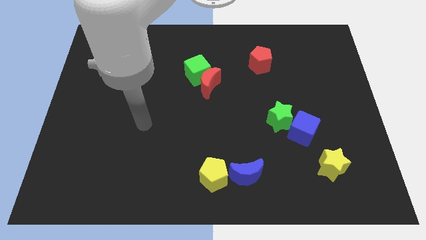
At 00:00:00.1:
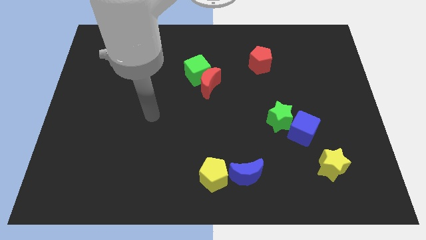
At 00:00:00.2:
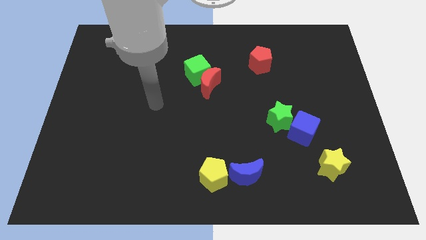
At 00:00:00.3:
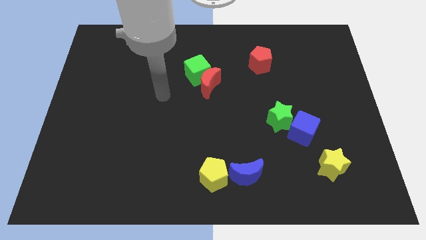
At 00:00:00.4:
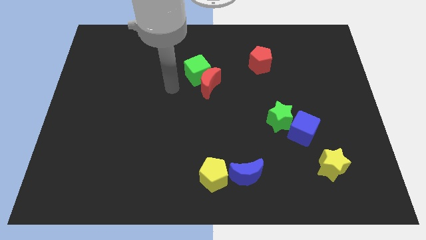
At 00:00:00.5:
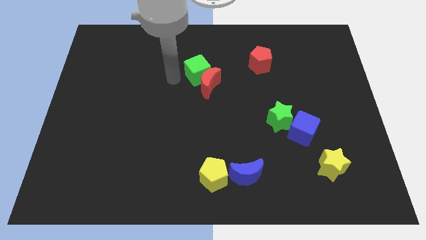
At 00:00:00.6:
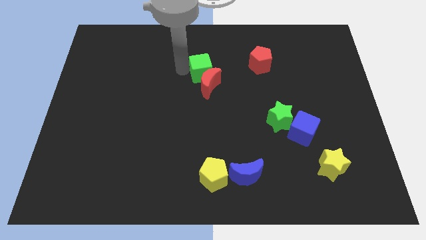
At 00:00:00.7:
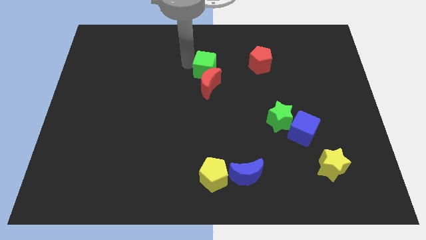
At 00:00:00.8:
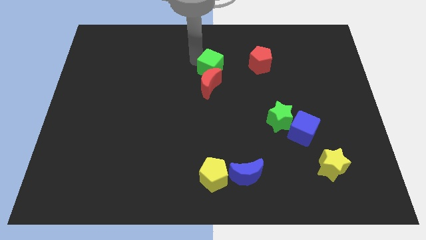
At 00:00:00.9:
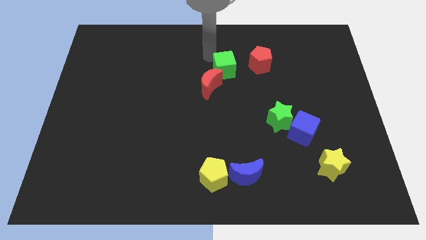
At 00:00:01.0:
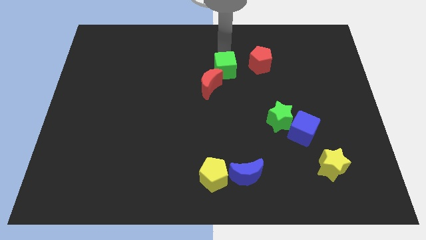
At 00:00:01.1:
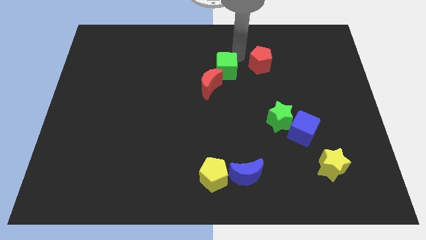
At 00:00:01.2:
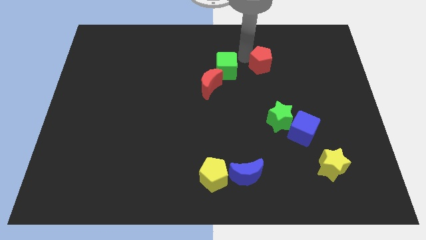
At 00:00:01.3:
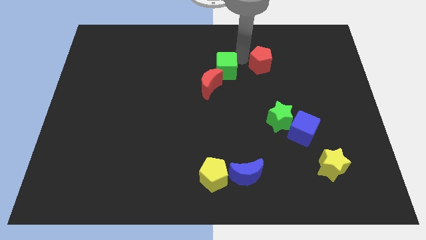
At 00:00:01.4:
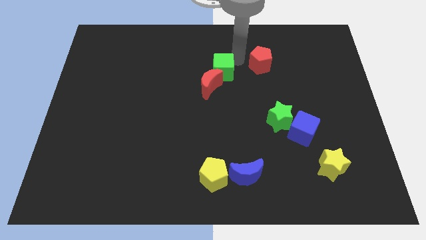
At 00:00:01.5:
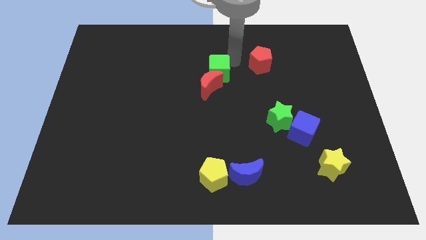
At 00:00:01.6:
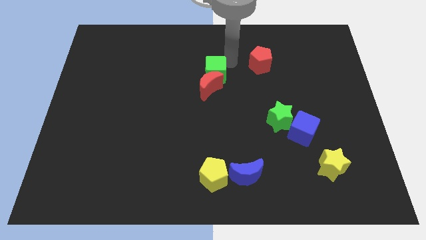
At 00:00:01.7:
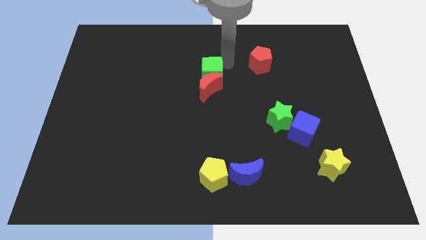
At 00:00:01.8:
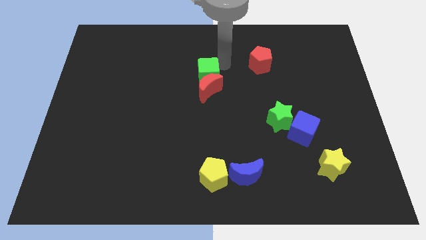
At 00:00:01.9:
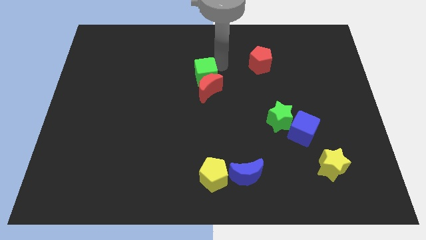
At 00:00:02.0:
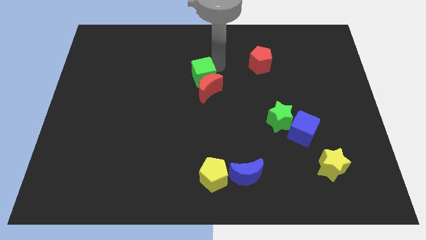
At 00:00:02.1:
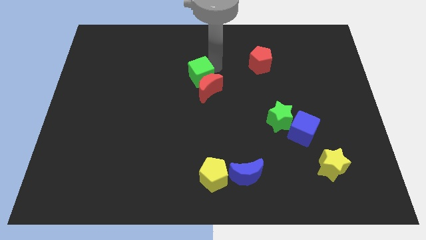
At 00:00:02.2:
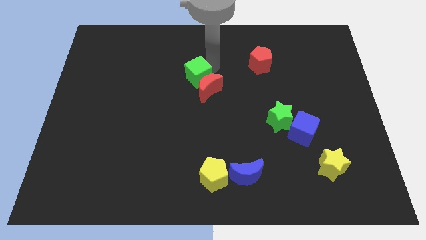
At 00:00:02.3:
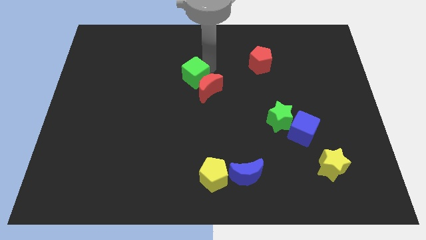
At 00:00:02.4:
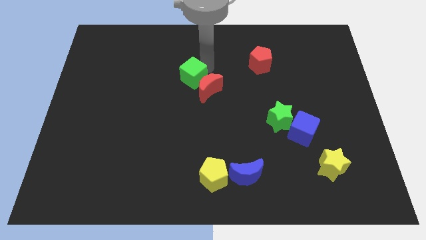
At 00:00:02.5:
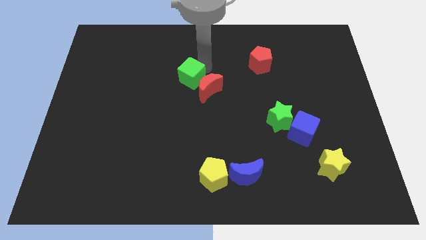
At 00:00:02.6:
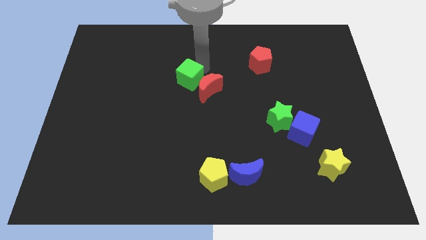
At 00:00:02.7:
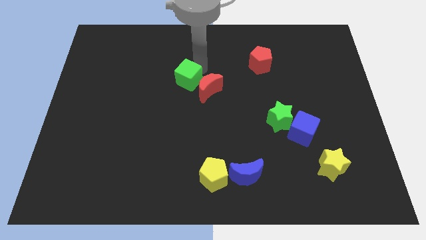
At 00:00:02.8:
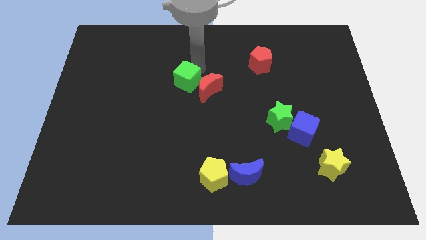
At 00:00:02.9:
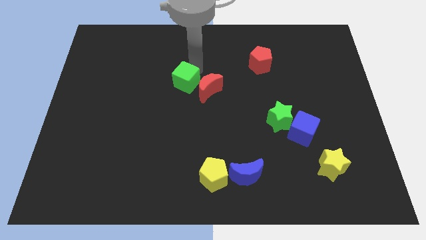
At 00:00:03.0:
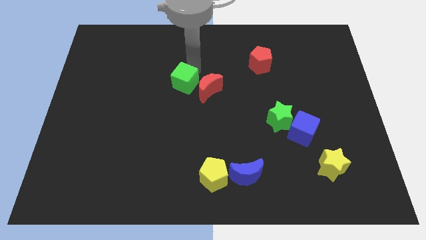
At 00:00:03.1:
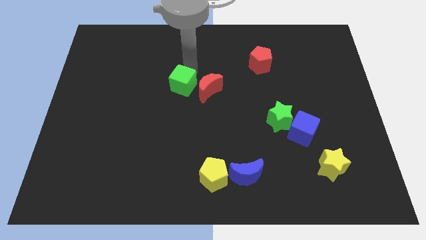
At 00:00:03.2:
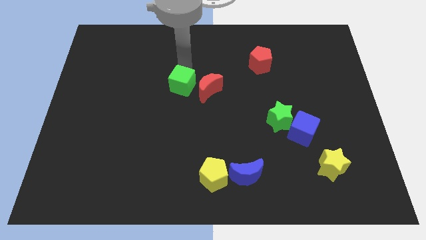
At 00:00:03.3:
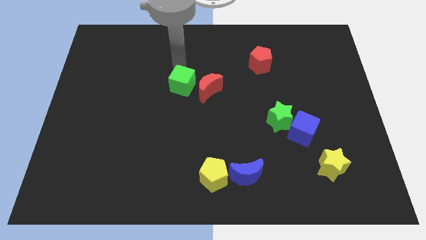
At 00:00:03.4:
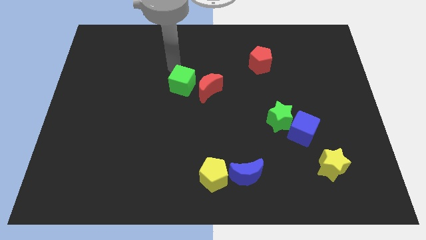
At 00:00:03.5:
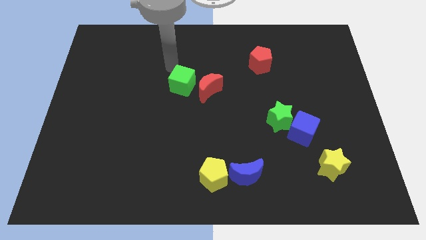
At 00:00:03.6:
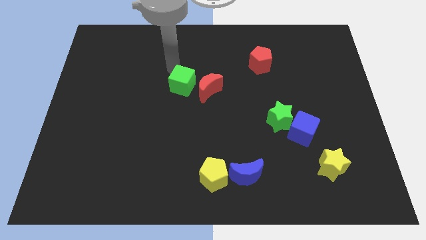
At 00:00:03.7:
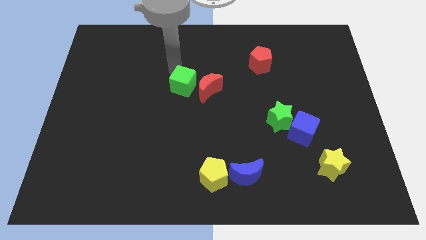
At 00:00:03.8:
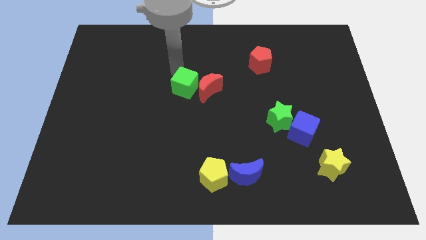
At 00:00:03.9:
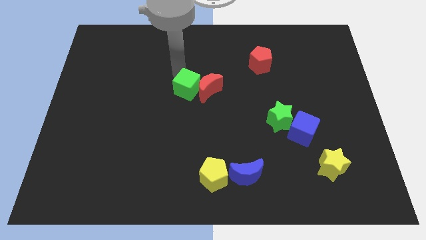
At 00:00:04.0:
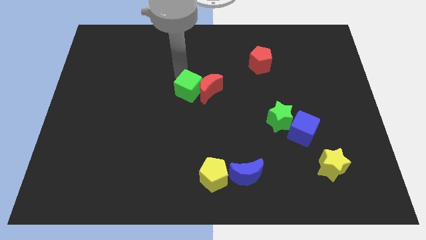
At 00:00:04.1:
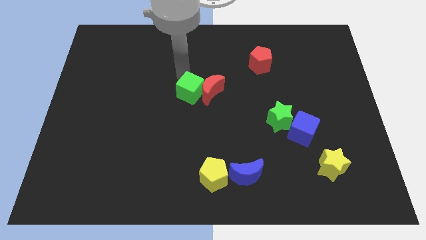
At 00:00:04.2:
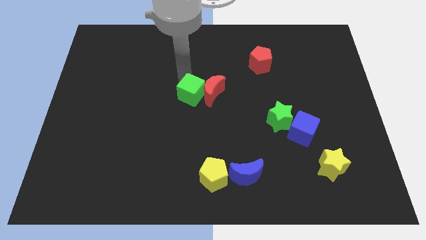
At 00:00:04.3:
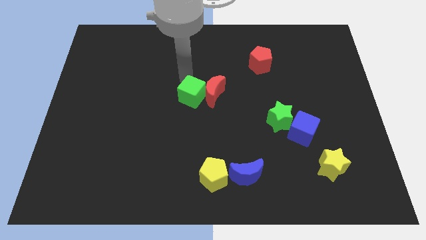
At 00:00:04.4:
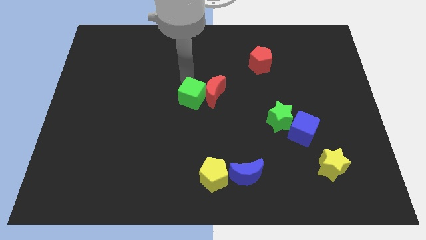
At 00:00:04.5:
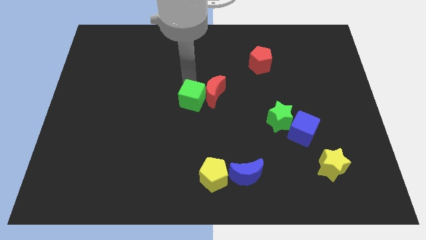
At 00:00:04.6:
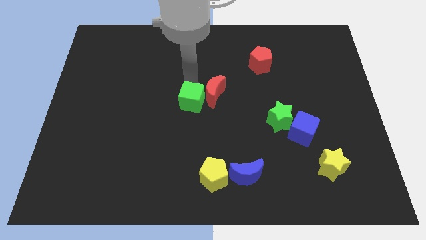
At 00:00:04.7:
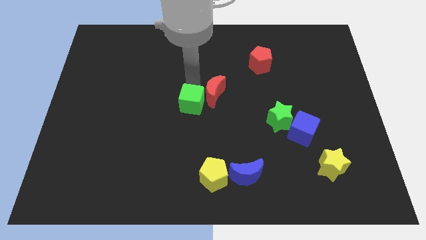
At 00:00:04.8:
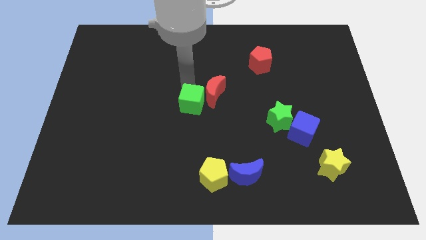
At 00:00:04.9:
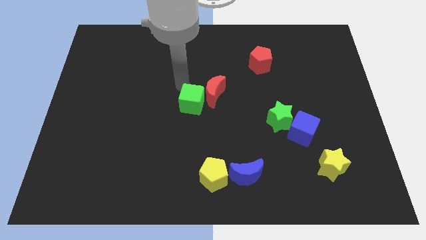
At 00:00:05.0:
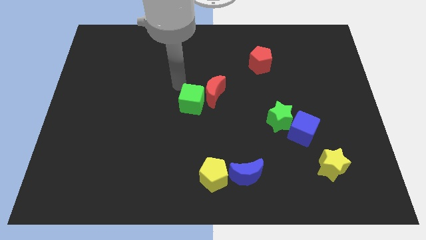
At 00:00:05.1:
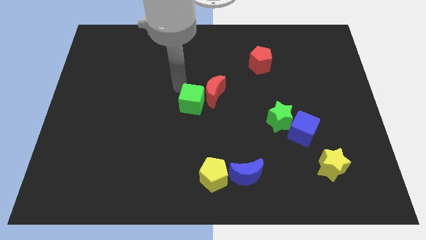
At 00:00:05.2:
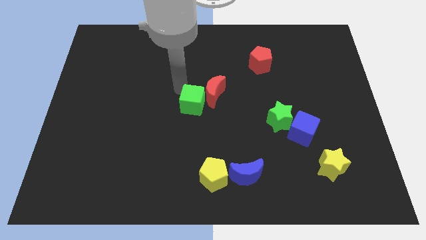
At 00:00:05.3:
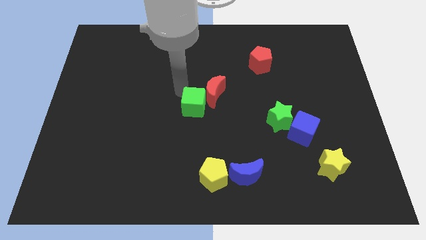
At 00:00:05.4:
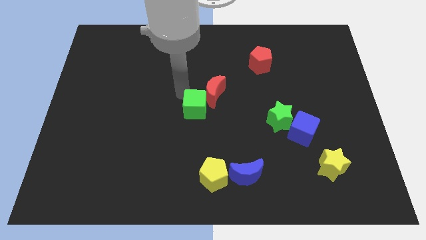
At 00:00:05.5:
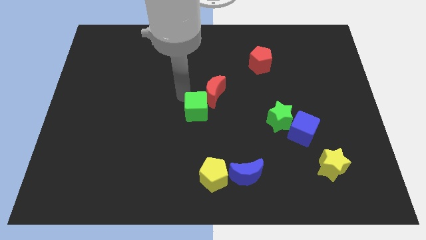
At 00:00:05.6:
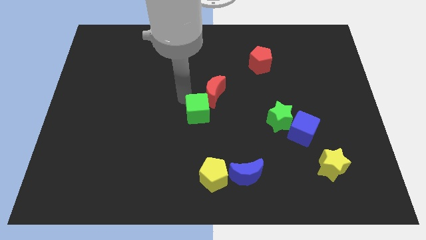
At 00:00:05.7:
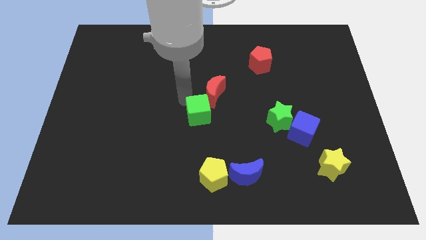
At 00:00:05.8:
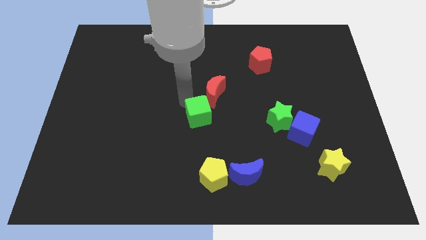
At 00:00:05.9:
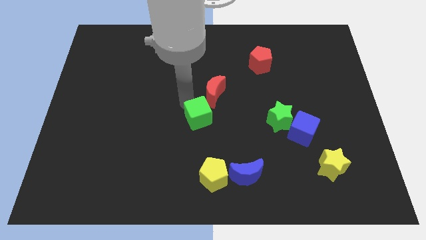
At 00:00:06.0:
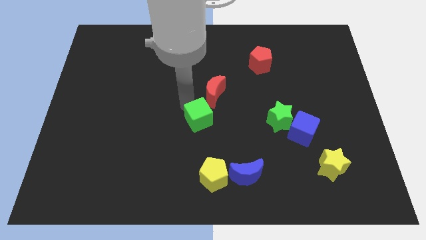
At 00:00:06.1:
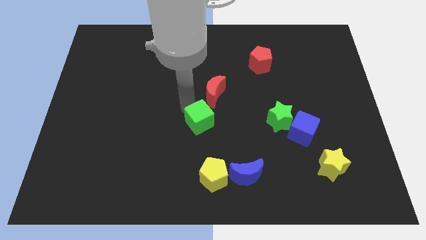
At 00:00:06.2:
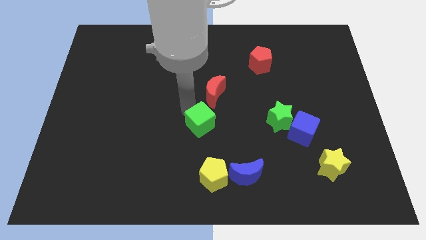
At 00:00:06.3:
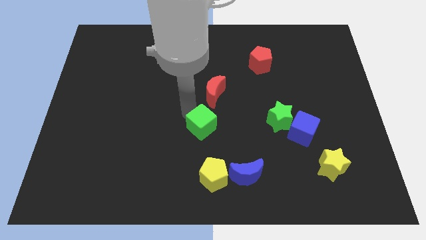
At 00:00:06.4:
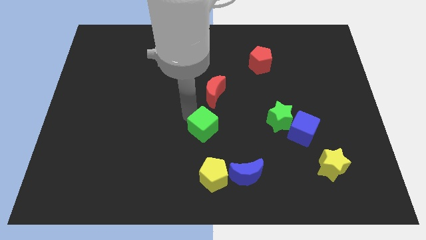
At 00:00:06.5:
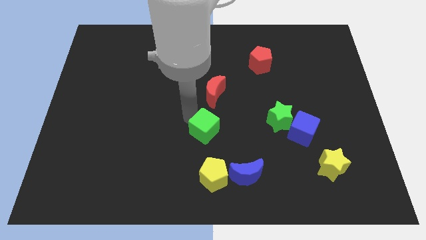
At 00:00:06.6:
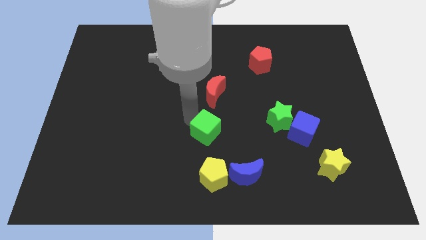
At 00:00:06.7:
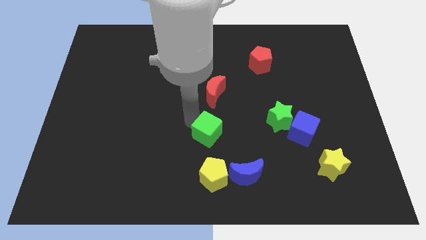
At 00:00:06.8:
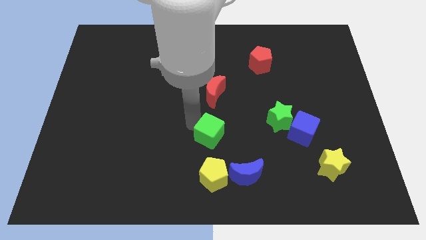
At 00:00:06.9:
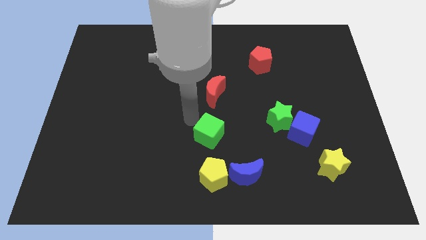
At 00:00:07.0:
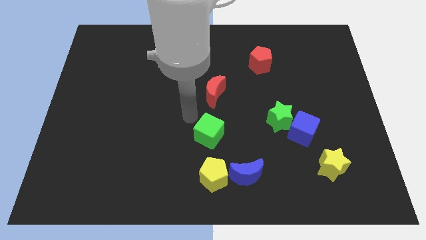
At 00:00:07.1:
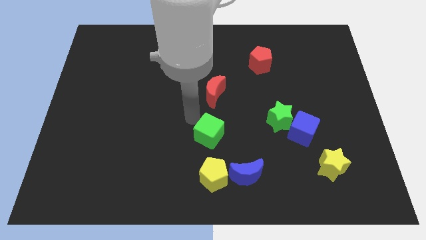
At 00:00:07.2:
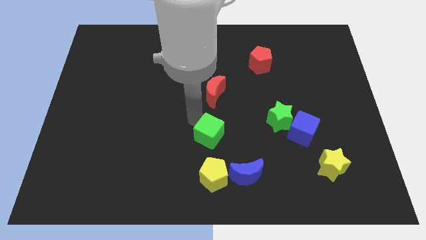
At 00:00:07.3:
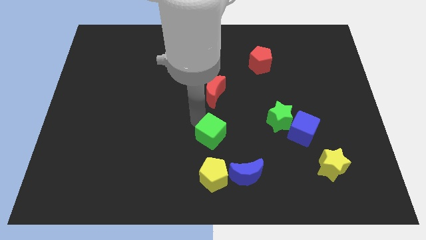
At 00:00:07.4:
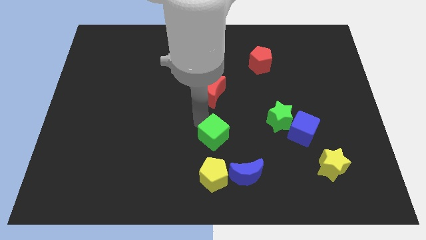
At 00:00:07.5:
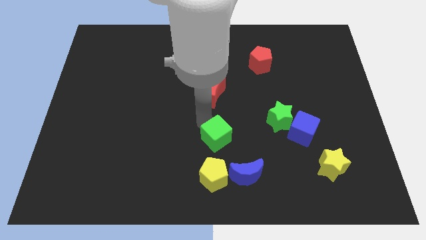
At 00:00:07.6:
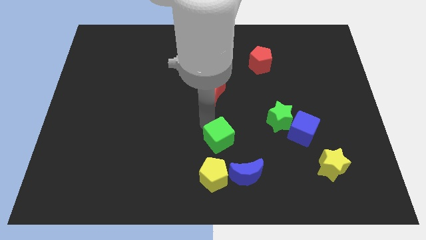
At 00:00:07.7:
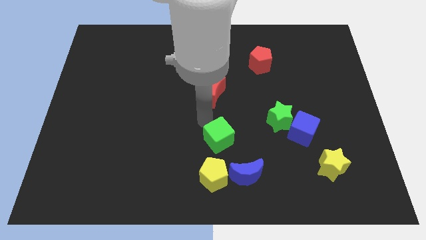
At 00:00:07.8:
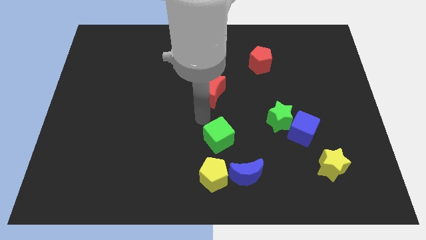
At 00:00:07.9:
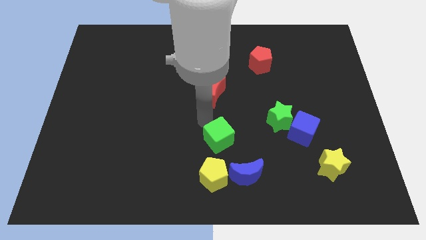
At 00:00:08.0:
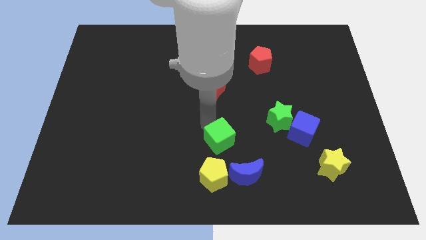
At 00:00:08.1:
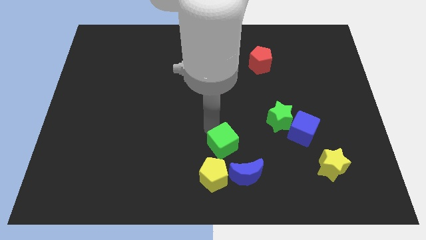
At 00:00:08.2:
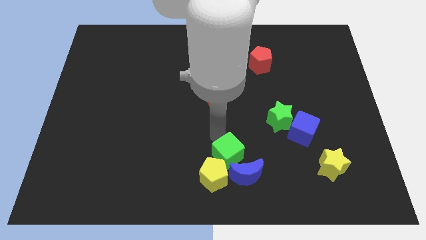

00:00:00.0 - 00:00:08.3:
push the green cube towards the blue moon
